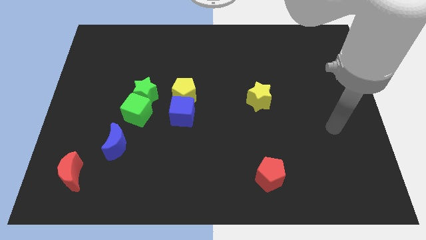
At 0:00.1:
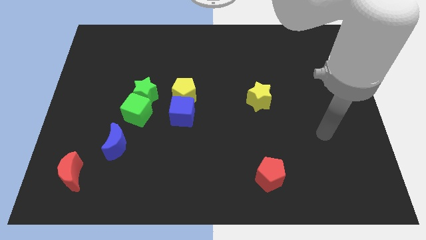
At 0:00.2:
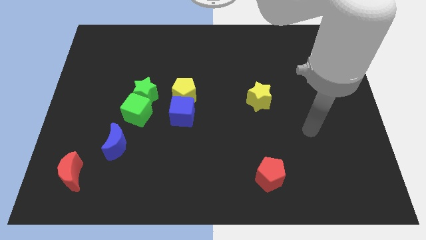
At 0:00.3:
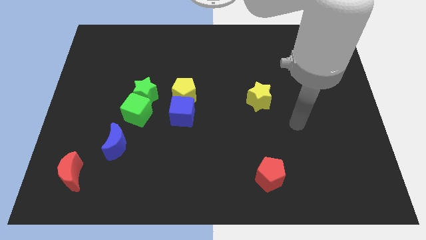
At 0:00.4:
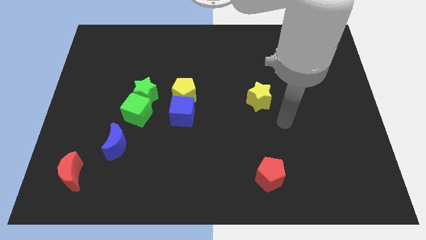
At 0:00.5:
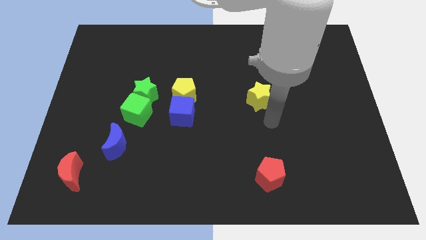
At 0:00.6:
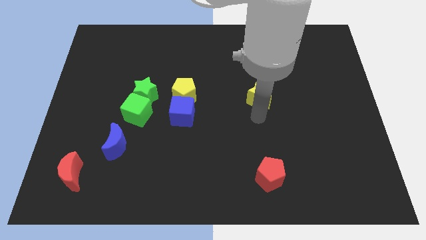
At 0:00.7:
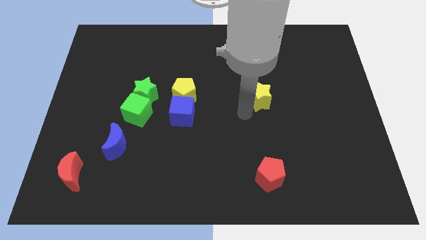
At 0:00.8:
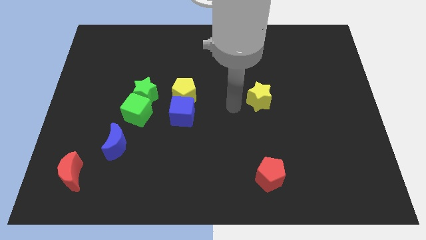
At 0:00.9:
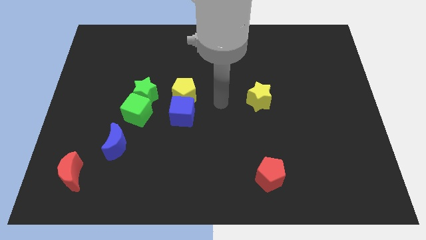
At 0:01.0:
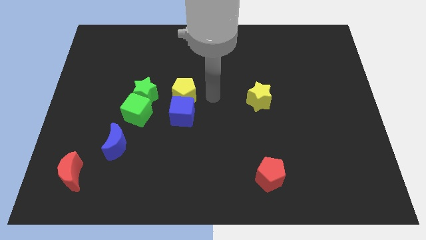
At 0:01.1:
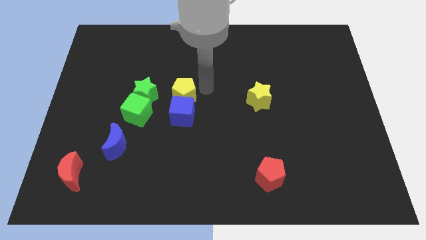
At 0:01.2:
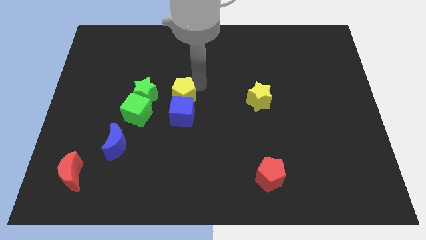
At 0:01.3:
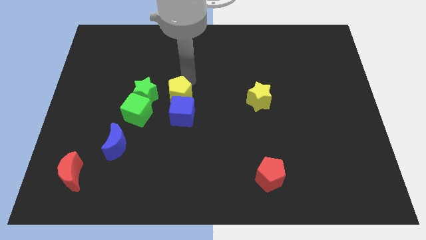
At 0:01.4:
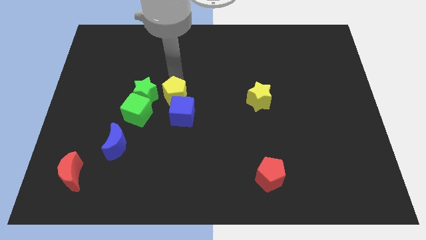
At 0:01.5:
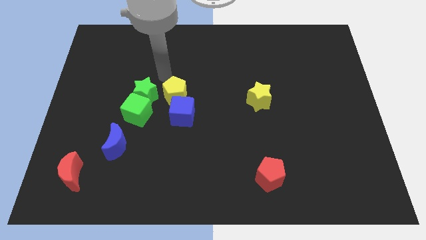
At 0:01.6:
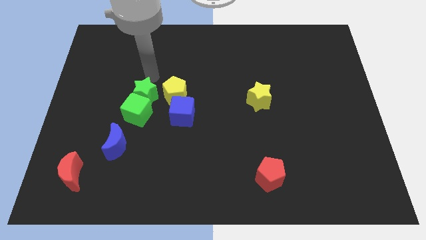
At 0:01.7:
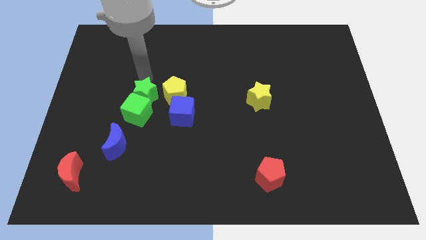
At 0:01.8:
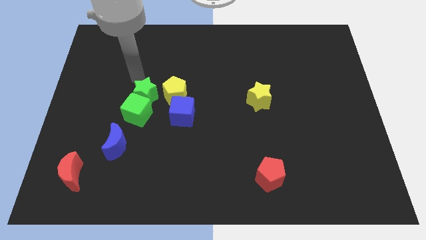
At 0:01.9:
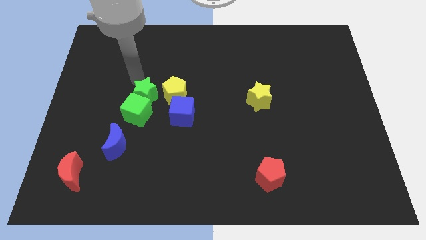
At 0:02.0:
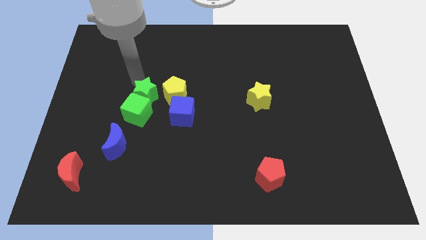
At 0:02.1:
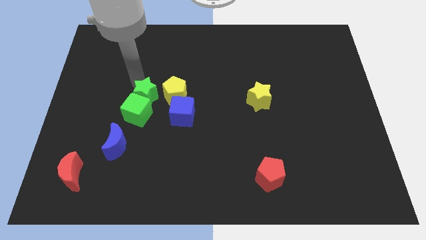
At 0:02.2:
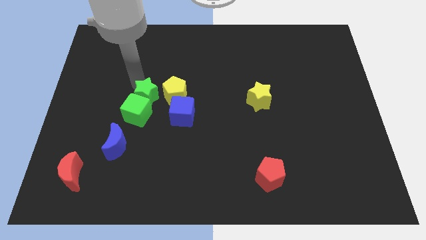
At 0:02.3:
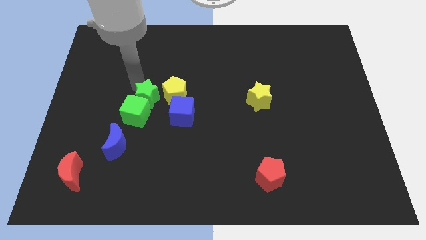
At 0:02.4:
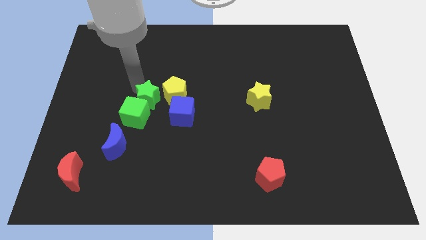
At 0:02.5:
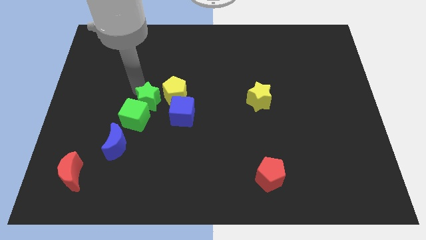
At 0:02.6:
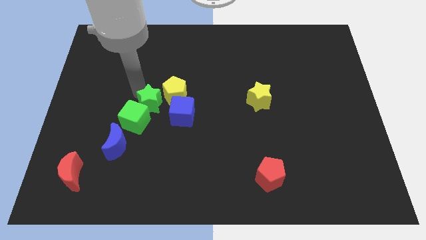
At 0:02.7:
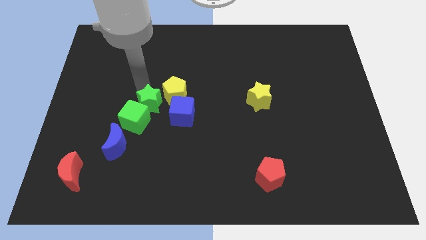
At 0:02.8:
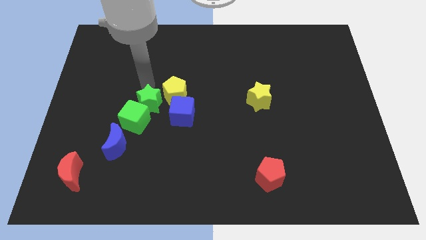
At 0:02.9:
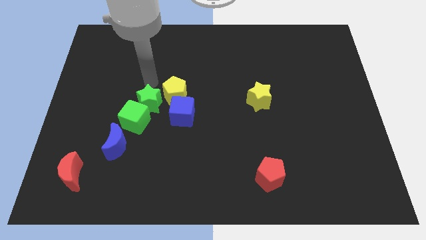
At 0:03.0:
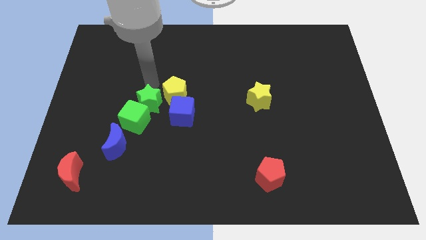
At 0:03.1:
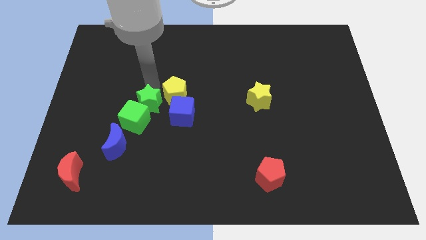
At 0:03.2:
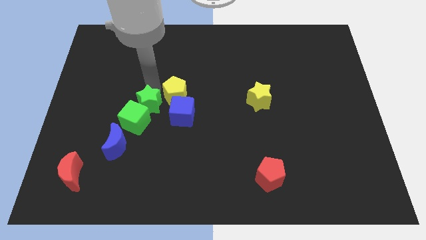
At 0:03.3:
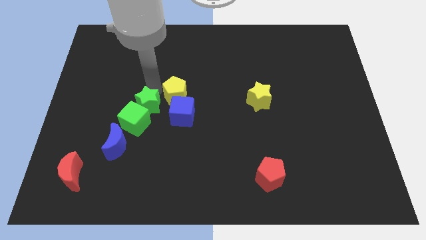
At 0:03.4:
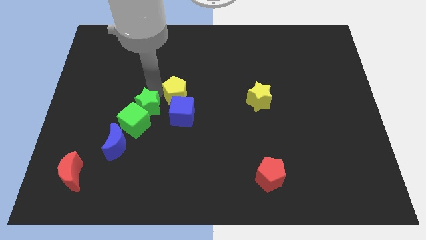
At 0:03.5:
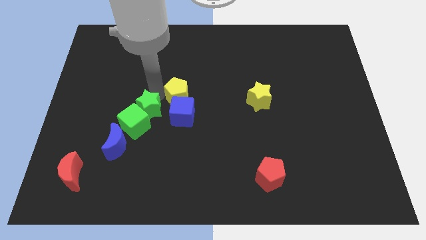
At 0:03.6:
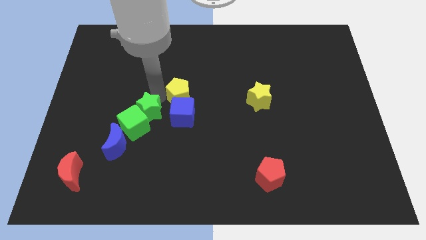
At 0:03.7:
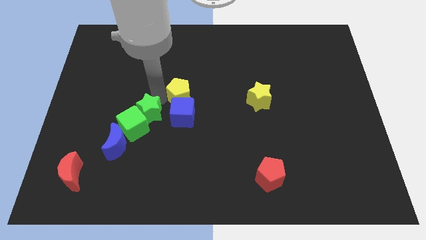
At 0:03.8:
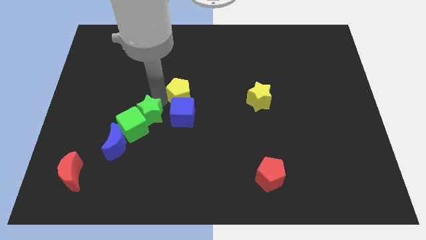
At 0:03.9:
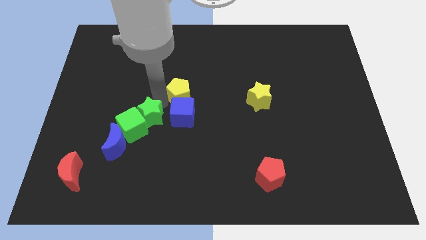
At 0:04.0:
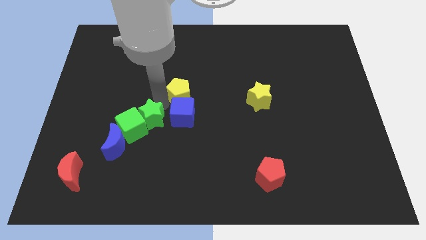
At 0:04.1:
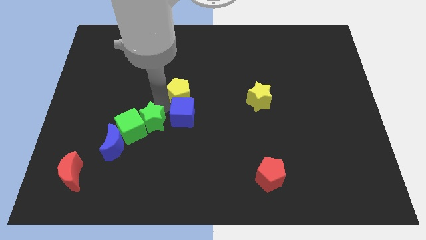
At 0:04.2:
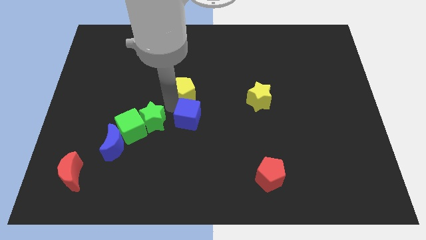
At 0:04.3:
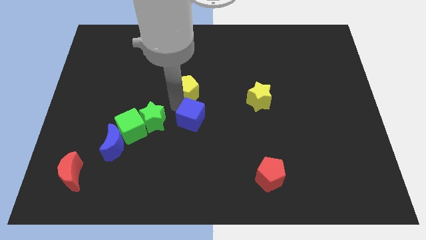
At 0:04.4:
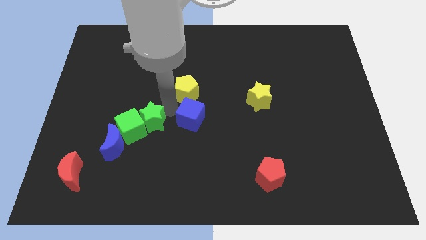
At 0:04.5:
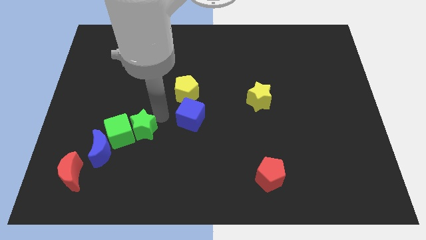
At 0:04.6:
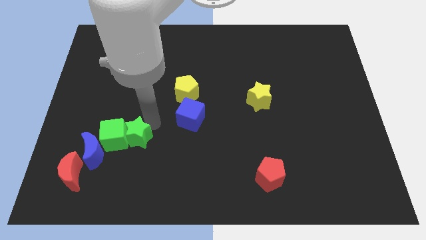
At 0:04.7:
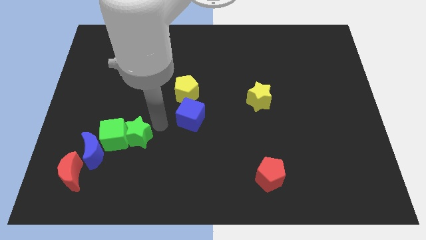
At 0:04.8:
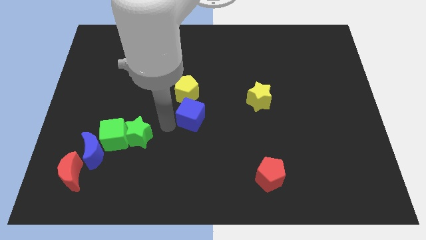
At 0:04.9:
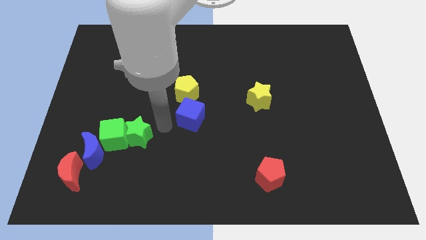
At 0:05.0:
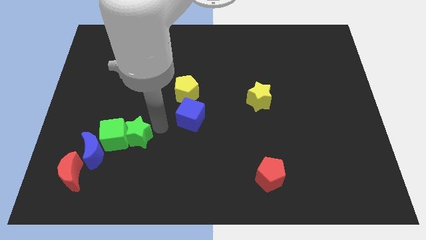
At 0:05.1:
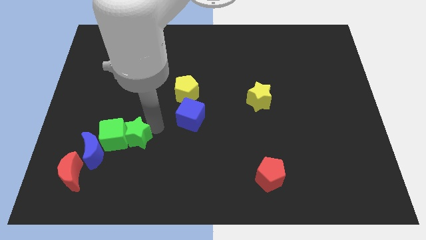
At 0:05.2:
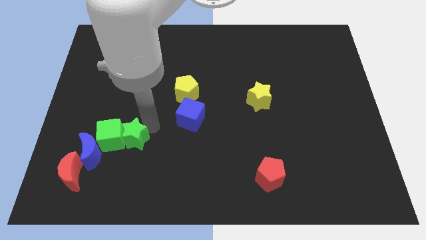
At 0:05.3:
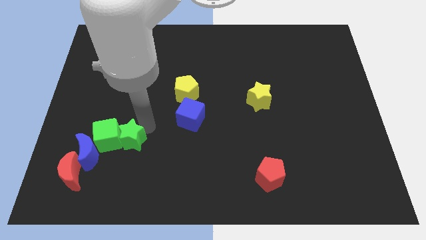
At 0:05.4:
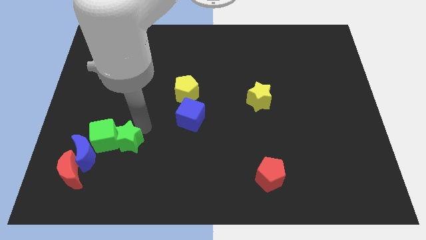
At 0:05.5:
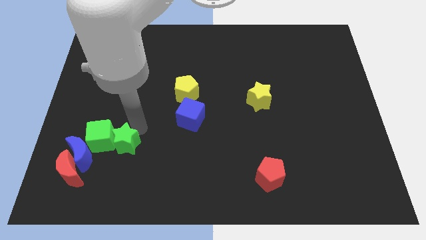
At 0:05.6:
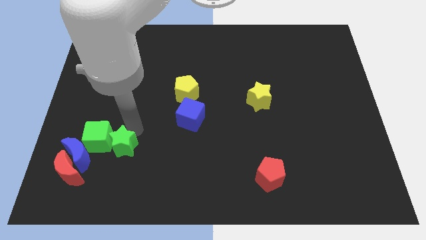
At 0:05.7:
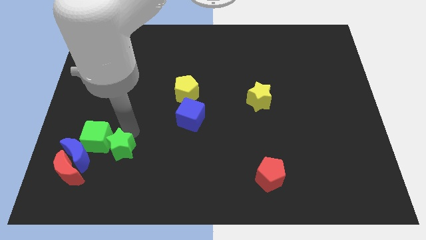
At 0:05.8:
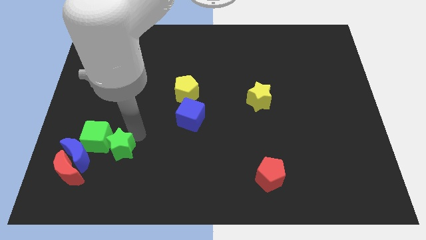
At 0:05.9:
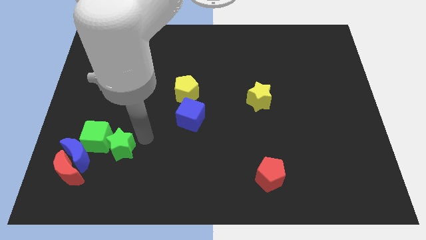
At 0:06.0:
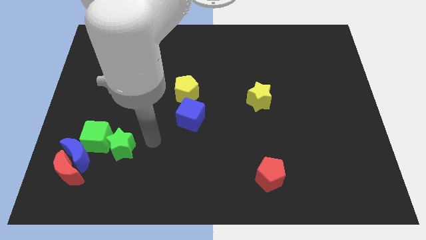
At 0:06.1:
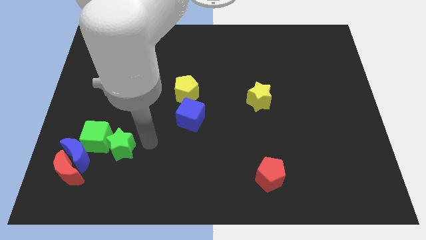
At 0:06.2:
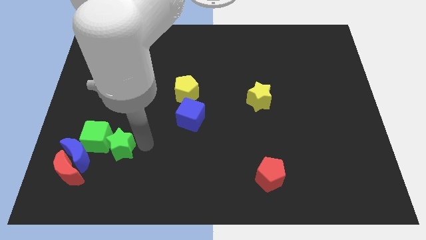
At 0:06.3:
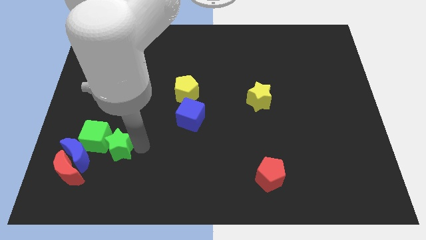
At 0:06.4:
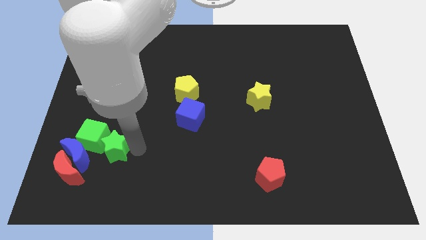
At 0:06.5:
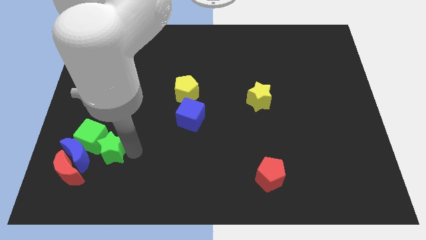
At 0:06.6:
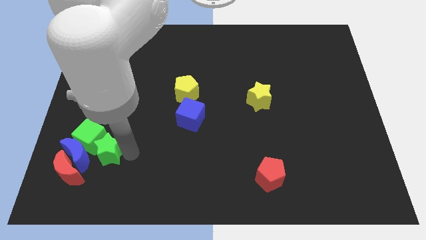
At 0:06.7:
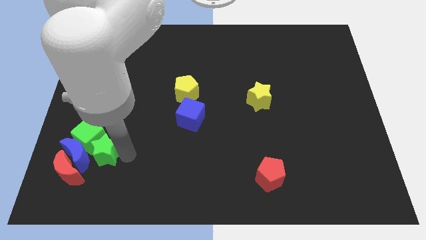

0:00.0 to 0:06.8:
slide the green star to the blue moon

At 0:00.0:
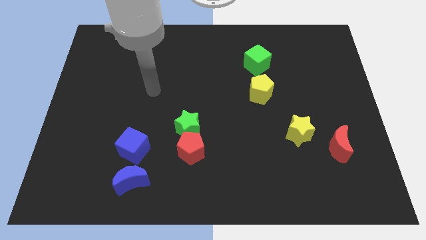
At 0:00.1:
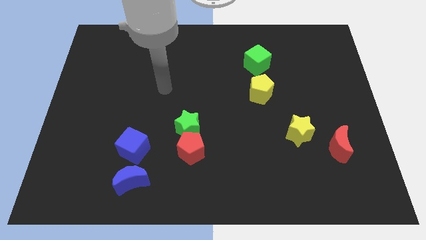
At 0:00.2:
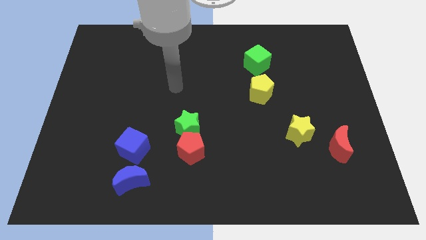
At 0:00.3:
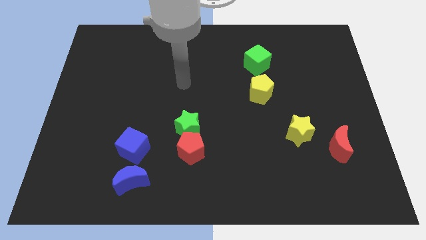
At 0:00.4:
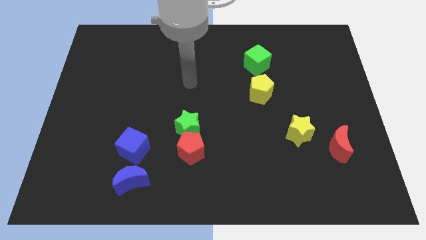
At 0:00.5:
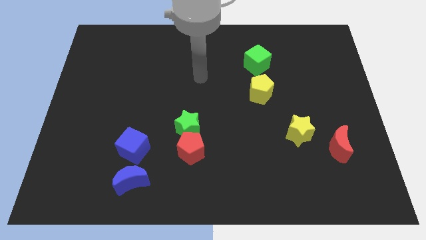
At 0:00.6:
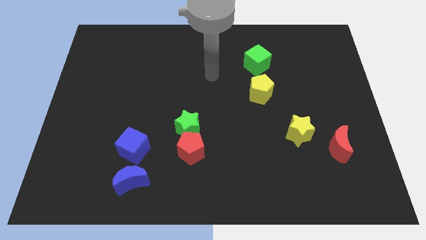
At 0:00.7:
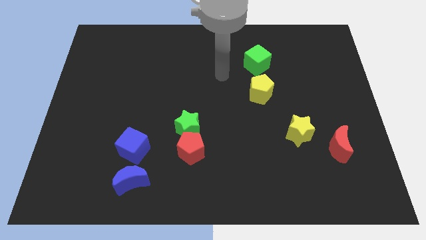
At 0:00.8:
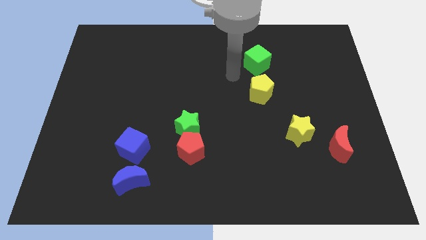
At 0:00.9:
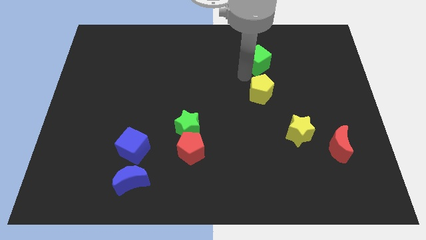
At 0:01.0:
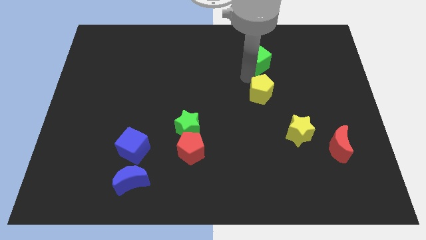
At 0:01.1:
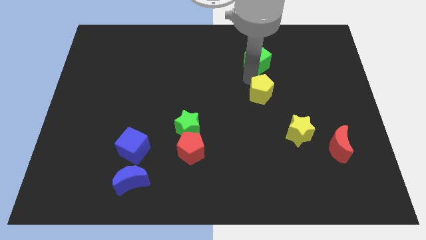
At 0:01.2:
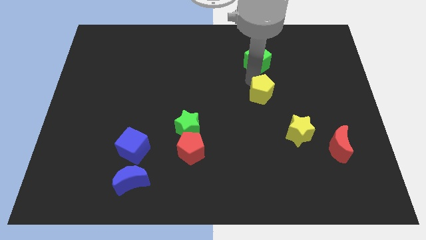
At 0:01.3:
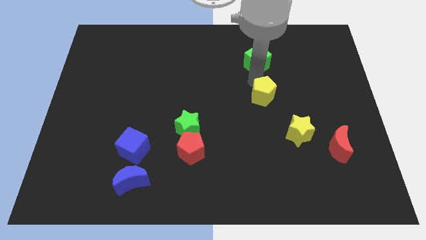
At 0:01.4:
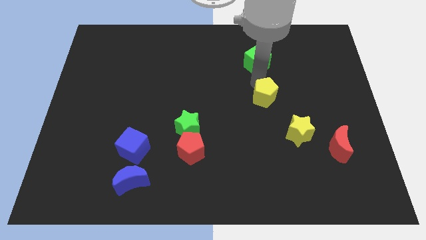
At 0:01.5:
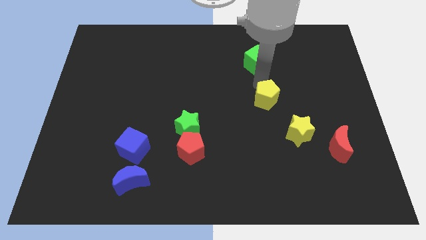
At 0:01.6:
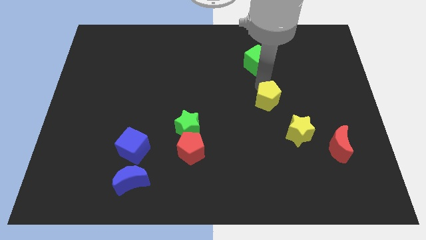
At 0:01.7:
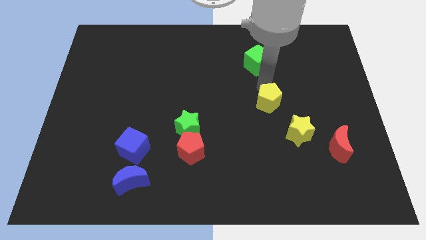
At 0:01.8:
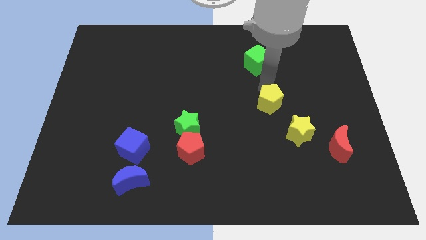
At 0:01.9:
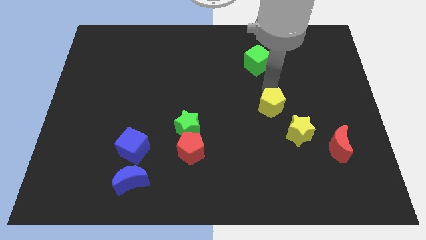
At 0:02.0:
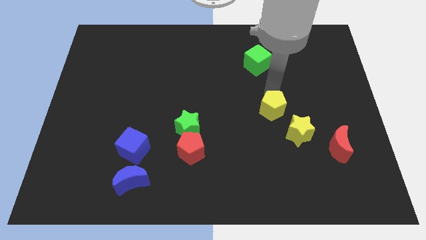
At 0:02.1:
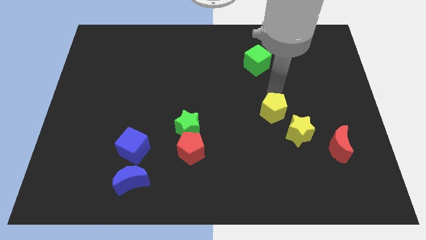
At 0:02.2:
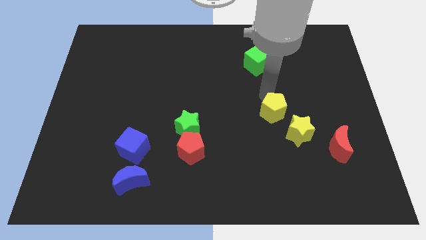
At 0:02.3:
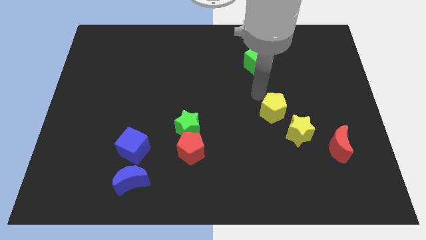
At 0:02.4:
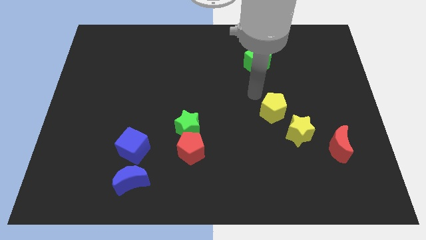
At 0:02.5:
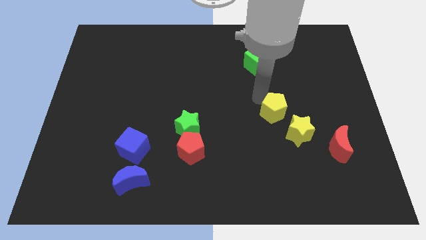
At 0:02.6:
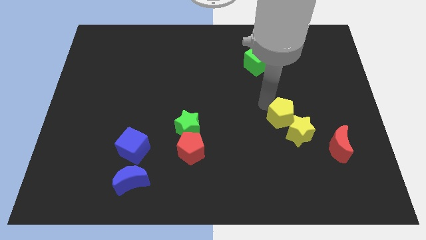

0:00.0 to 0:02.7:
move the yellow pentagon to the yellow star
